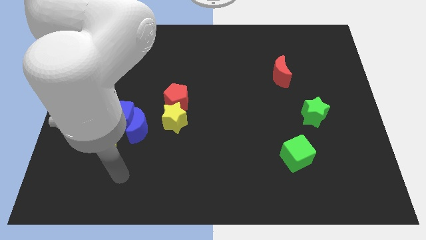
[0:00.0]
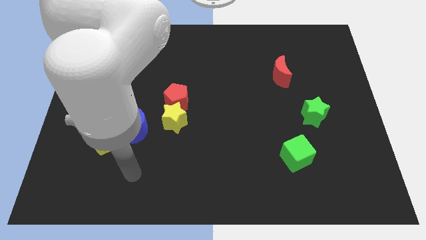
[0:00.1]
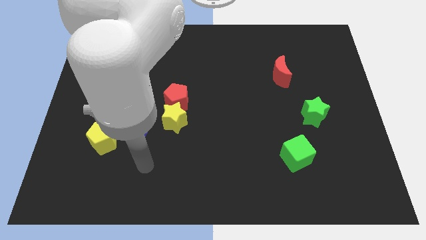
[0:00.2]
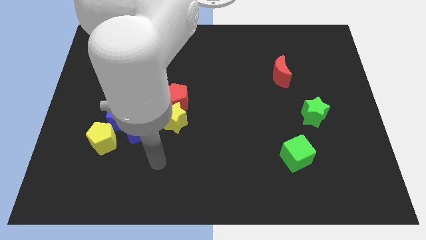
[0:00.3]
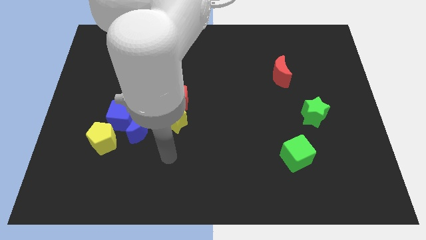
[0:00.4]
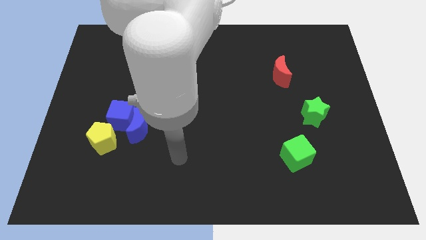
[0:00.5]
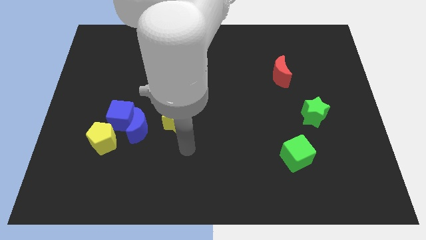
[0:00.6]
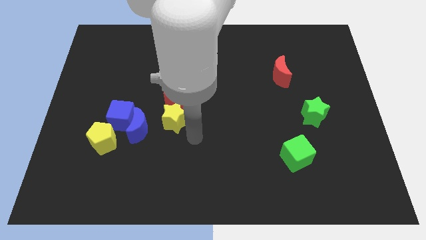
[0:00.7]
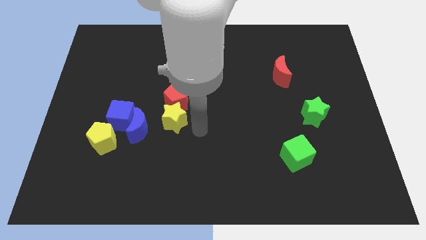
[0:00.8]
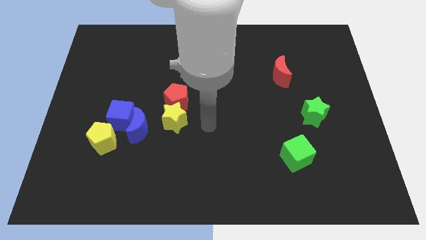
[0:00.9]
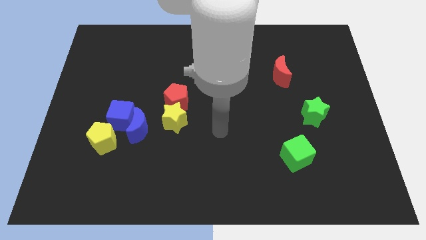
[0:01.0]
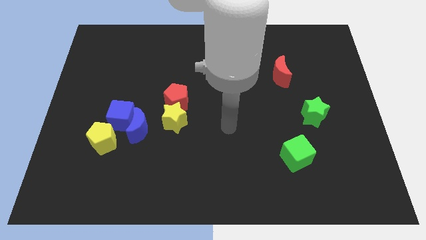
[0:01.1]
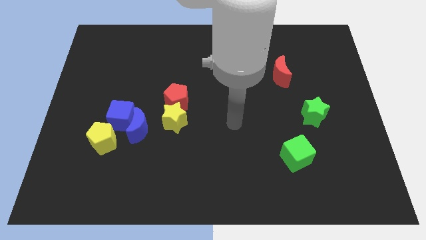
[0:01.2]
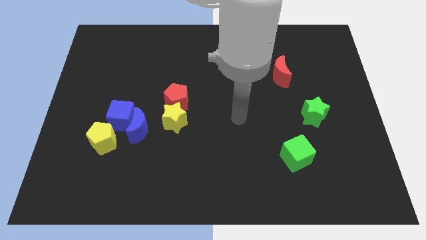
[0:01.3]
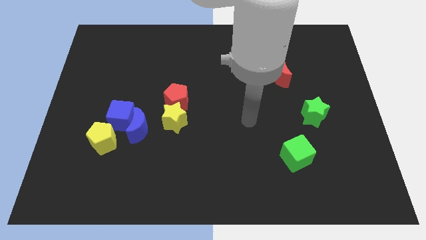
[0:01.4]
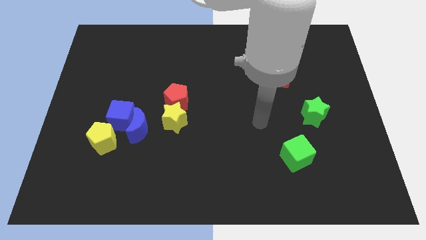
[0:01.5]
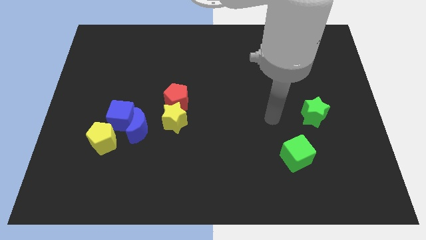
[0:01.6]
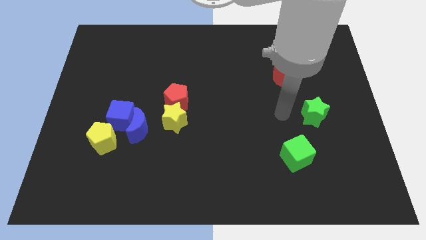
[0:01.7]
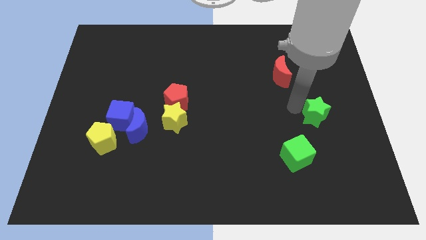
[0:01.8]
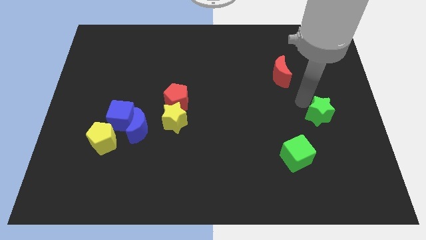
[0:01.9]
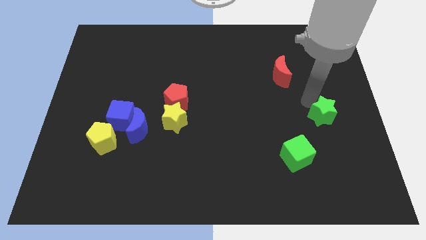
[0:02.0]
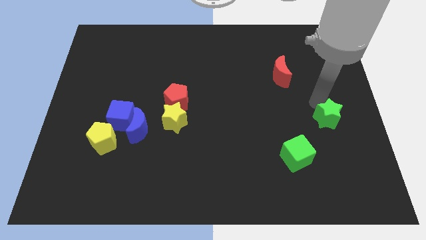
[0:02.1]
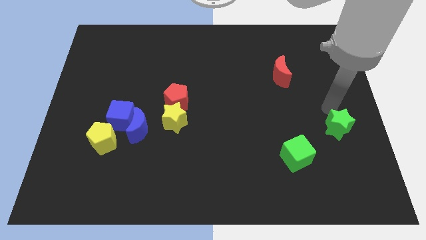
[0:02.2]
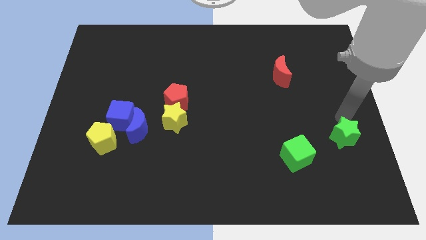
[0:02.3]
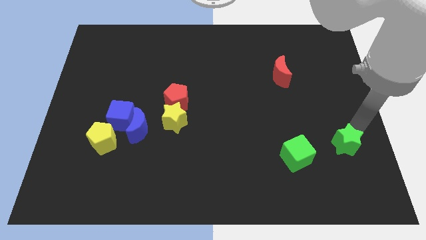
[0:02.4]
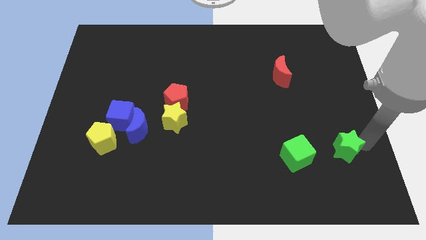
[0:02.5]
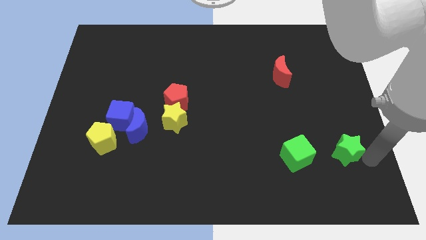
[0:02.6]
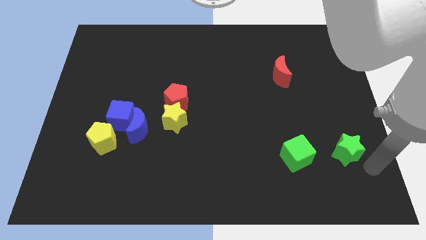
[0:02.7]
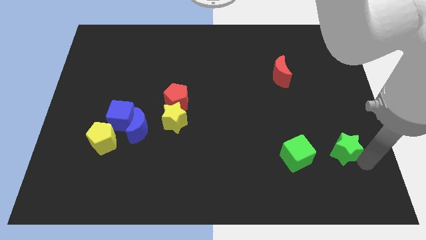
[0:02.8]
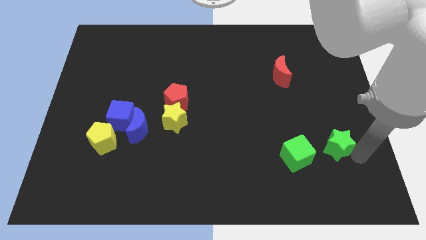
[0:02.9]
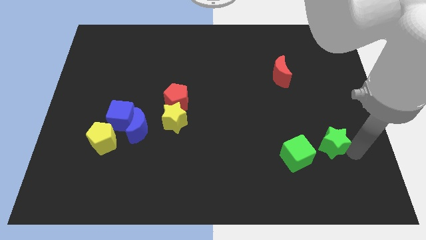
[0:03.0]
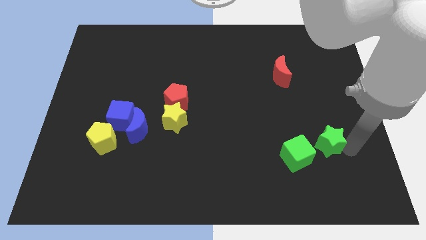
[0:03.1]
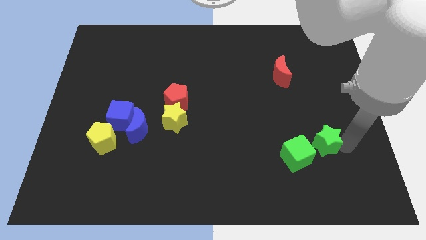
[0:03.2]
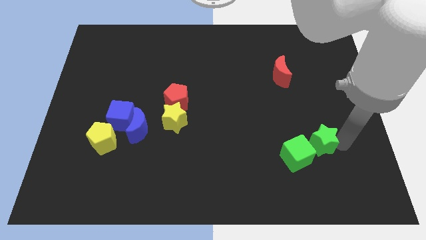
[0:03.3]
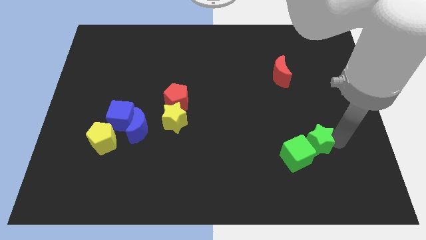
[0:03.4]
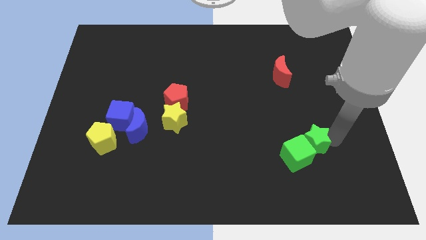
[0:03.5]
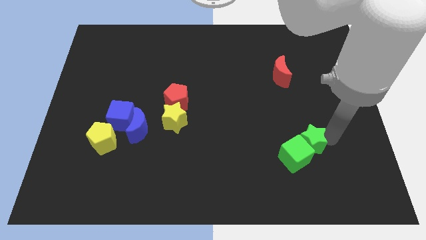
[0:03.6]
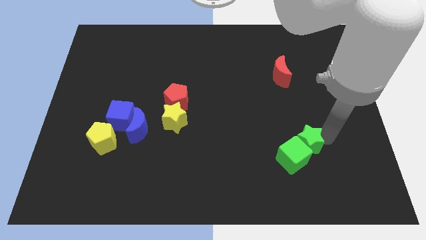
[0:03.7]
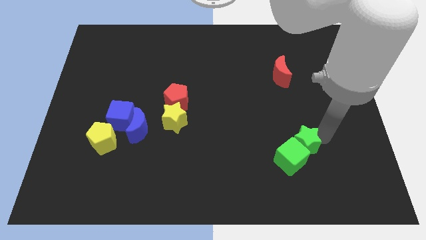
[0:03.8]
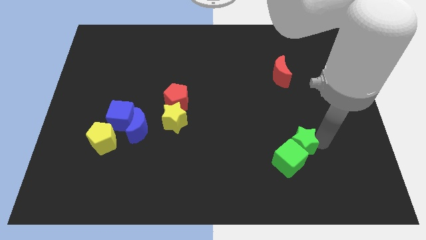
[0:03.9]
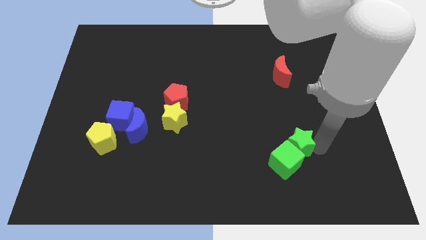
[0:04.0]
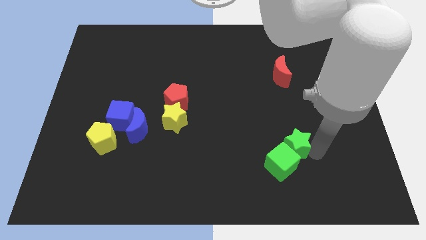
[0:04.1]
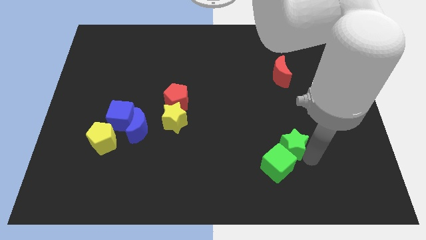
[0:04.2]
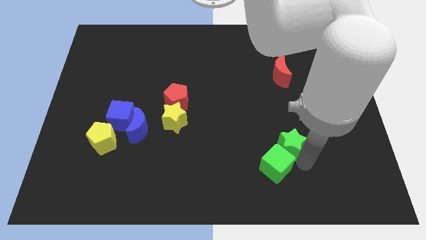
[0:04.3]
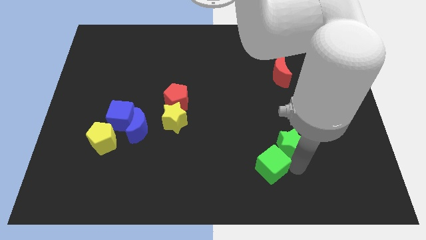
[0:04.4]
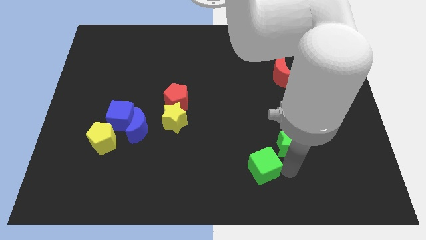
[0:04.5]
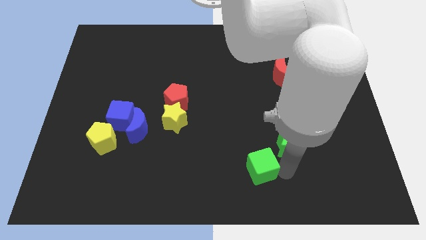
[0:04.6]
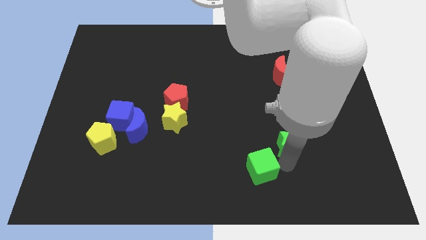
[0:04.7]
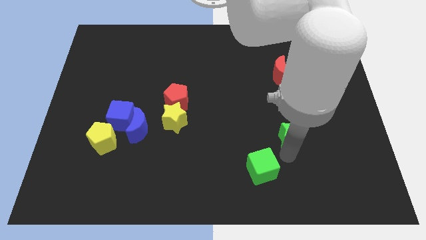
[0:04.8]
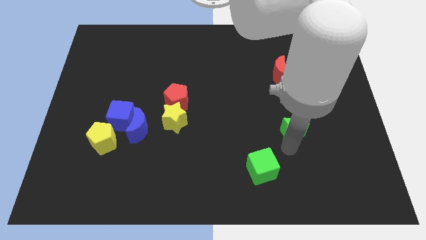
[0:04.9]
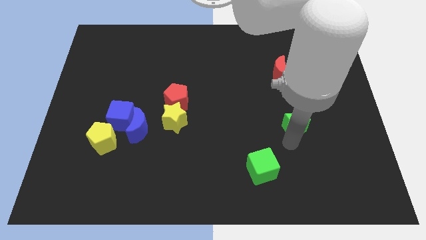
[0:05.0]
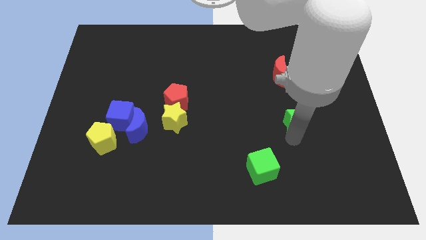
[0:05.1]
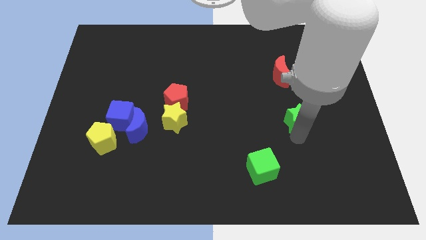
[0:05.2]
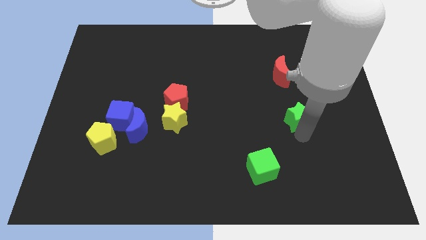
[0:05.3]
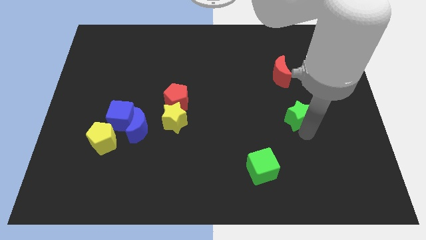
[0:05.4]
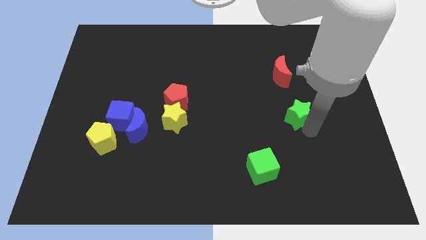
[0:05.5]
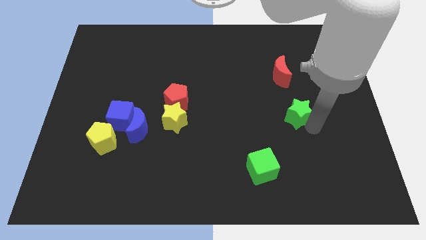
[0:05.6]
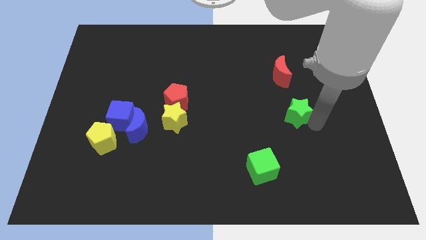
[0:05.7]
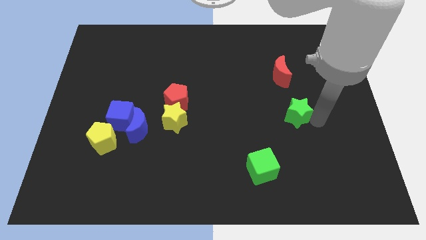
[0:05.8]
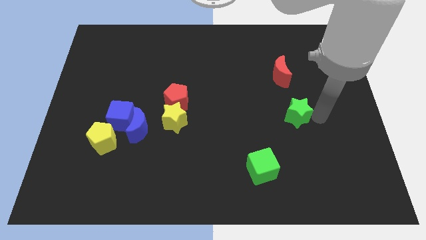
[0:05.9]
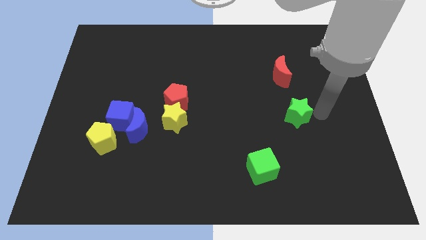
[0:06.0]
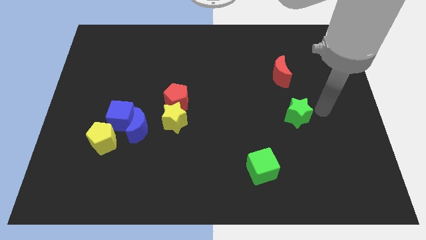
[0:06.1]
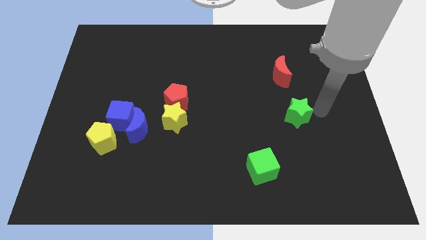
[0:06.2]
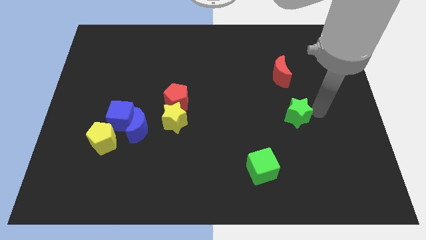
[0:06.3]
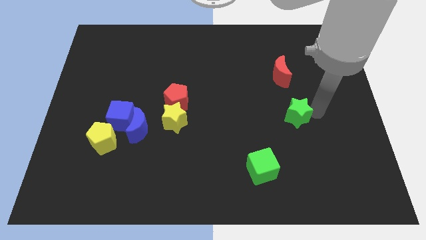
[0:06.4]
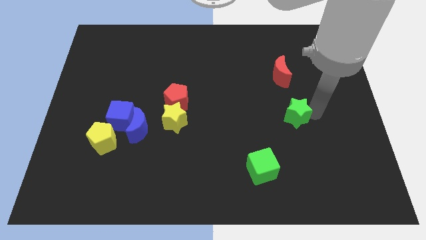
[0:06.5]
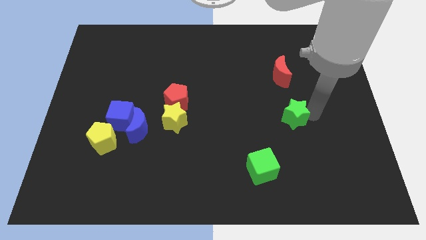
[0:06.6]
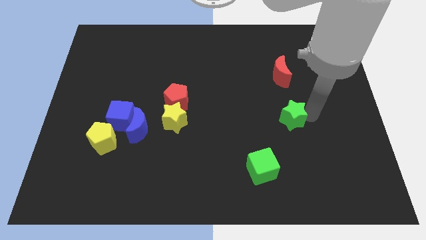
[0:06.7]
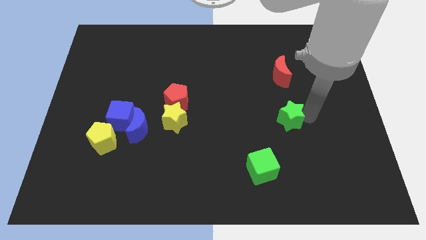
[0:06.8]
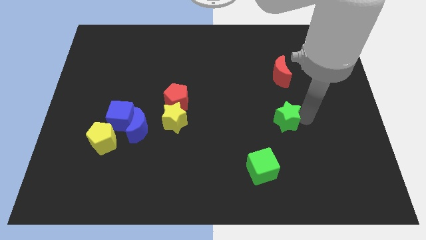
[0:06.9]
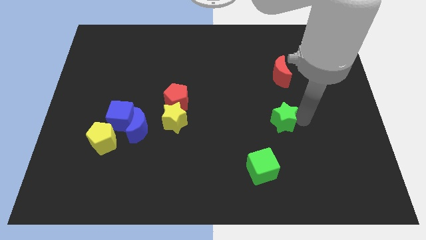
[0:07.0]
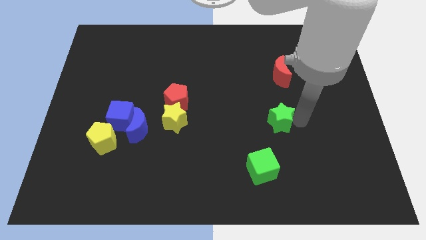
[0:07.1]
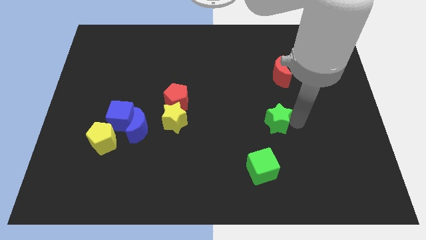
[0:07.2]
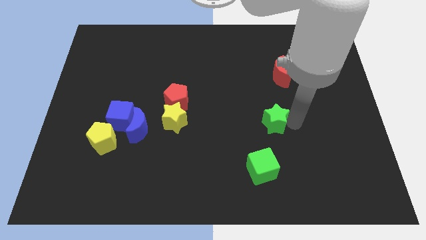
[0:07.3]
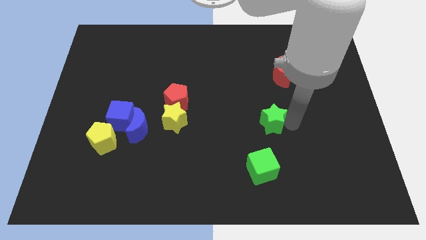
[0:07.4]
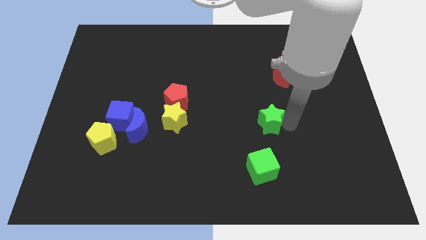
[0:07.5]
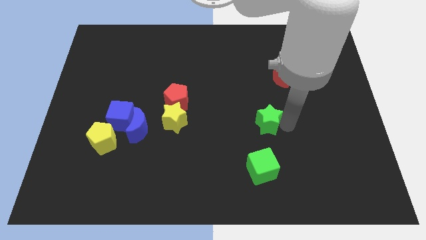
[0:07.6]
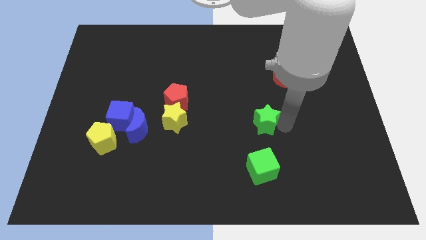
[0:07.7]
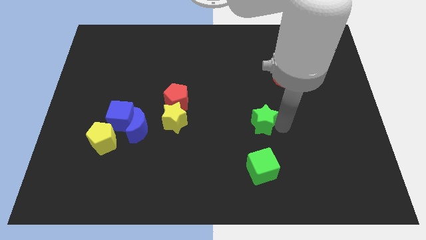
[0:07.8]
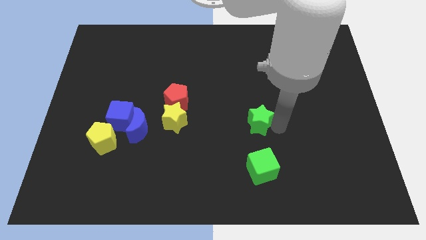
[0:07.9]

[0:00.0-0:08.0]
push the green star to the center of the board
